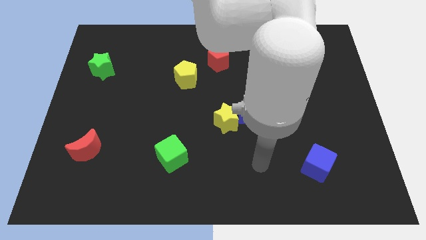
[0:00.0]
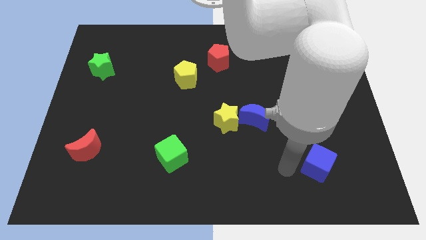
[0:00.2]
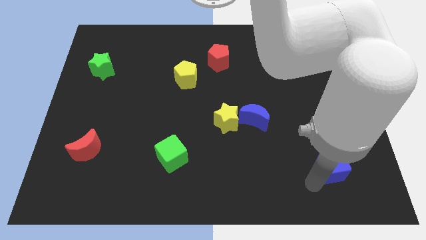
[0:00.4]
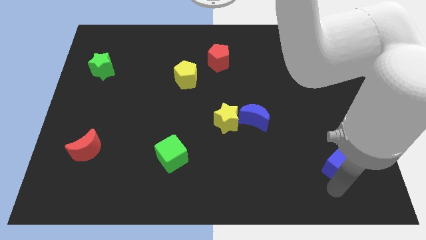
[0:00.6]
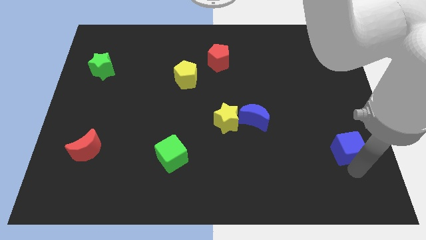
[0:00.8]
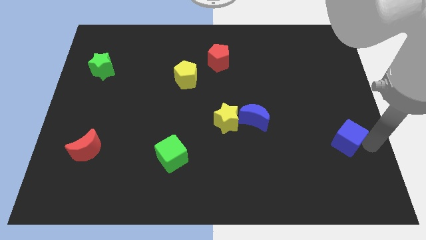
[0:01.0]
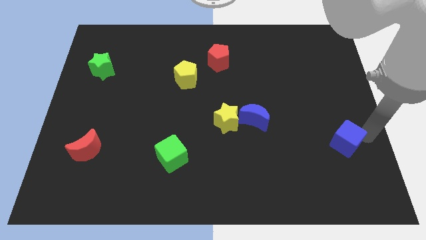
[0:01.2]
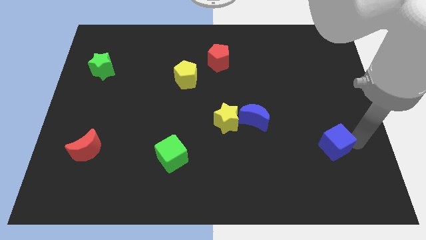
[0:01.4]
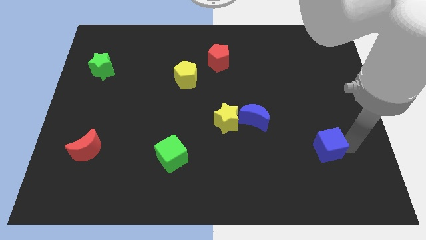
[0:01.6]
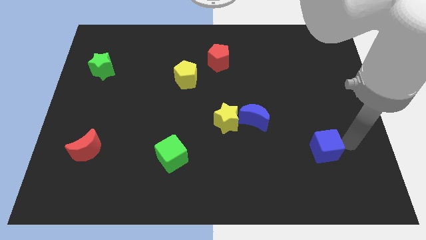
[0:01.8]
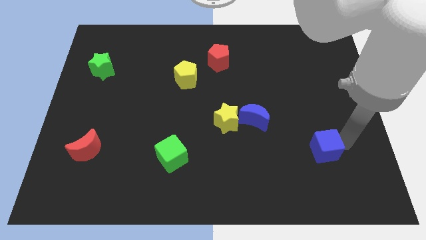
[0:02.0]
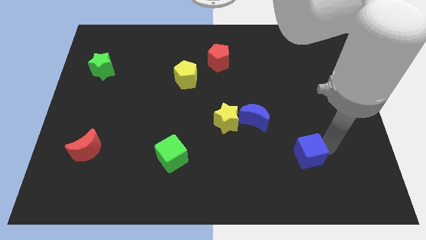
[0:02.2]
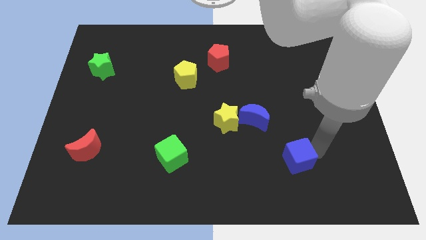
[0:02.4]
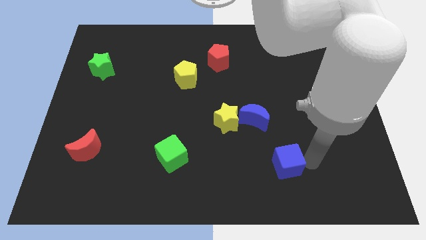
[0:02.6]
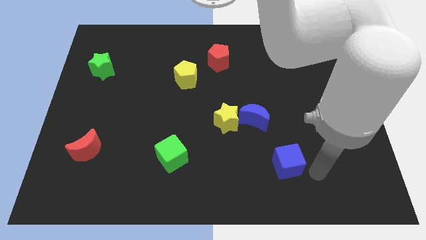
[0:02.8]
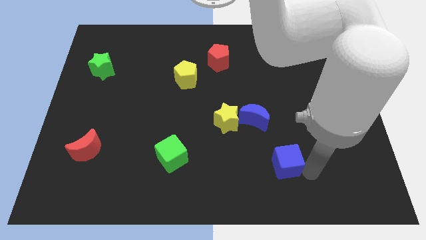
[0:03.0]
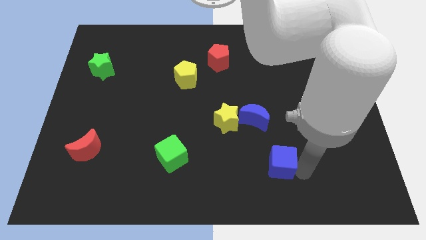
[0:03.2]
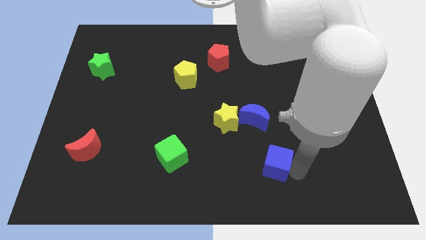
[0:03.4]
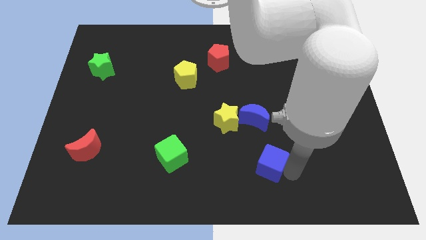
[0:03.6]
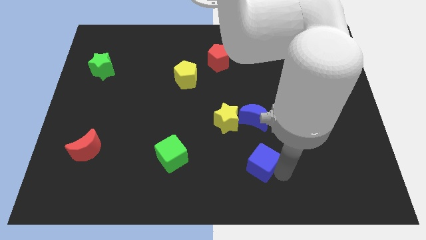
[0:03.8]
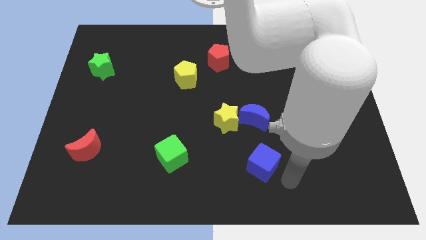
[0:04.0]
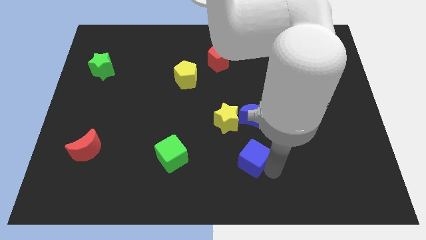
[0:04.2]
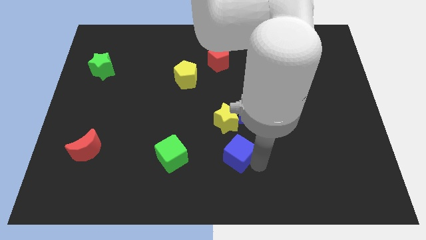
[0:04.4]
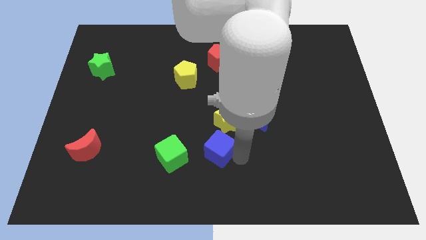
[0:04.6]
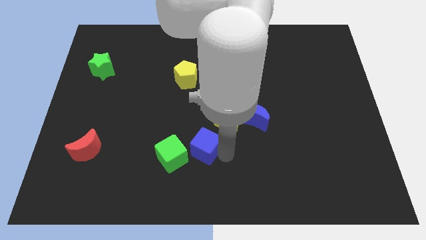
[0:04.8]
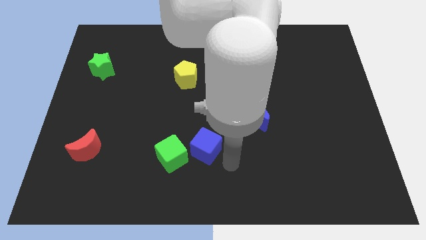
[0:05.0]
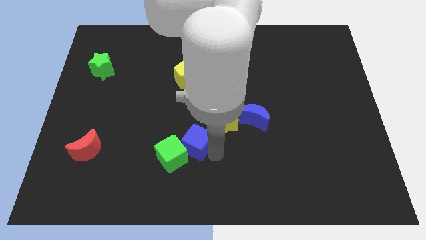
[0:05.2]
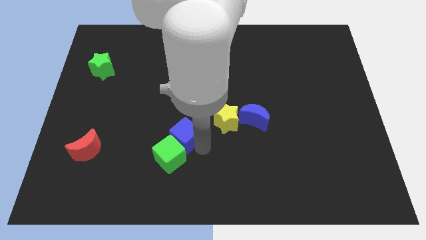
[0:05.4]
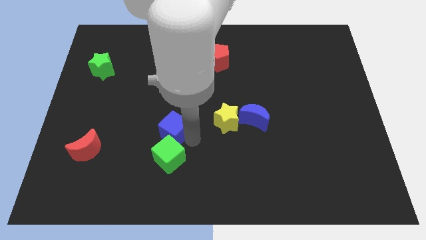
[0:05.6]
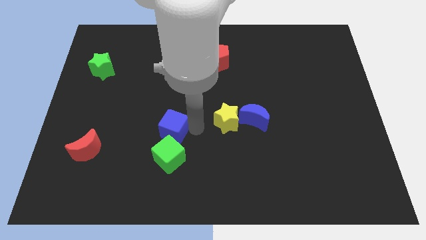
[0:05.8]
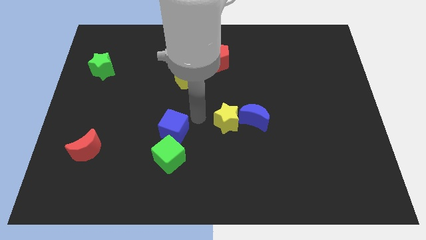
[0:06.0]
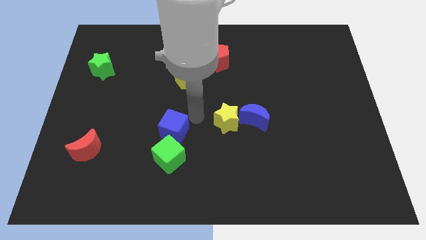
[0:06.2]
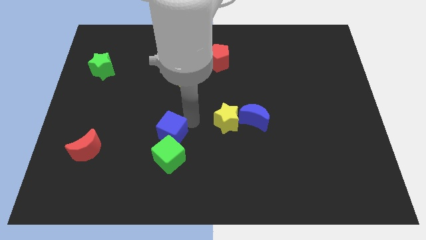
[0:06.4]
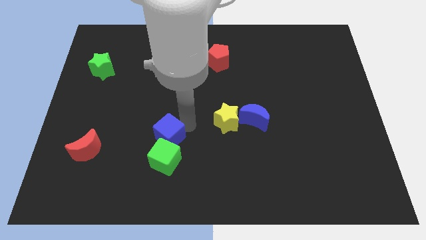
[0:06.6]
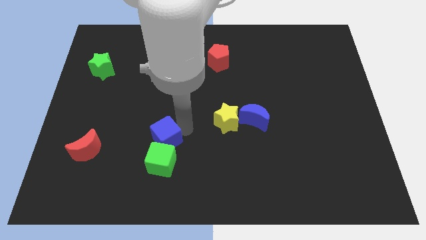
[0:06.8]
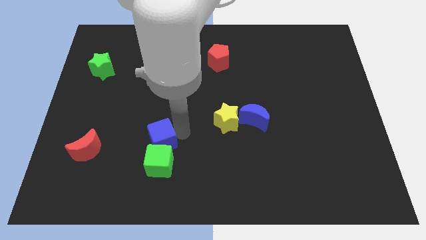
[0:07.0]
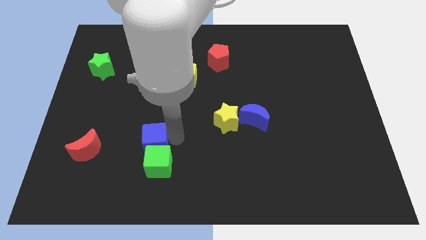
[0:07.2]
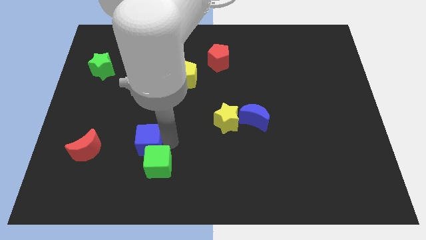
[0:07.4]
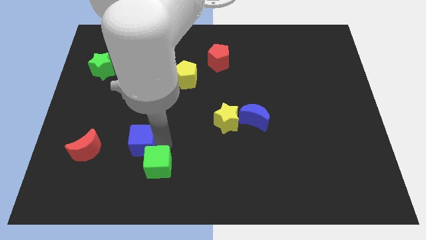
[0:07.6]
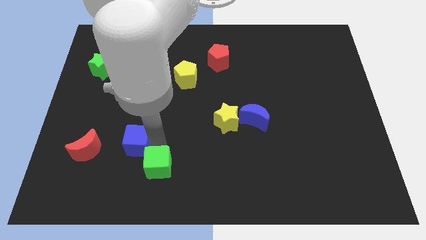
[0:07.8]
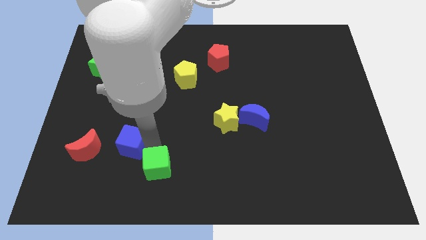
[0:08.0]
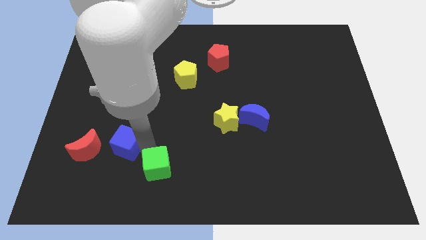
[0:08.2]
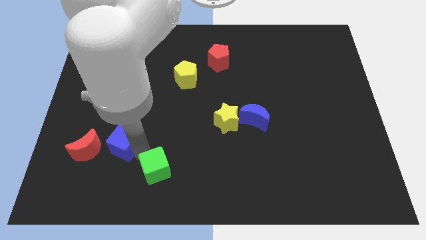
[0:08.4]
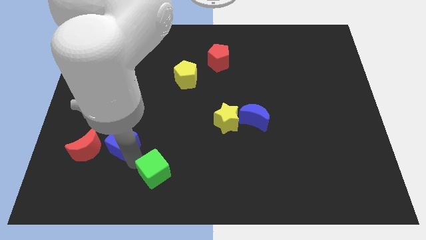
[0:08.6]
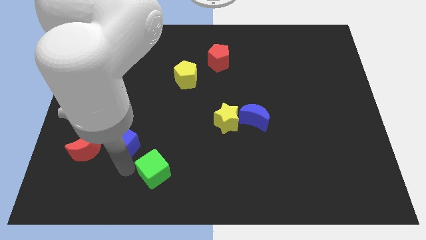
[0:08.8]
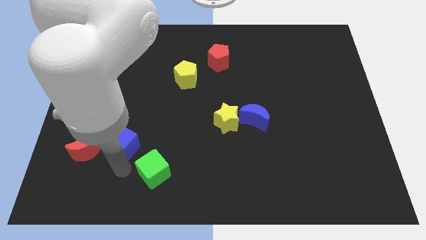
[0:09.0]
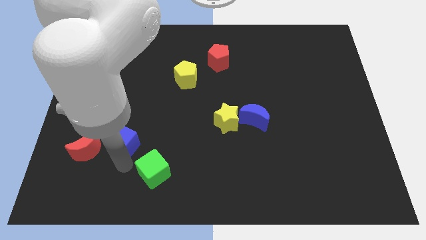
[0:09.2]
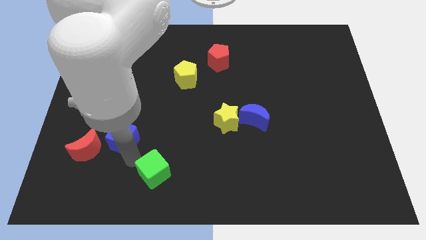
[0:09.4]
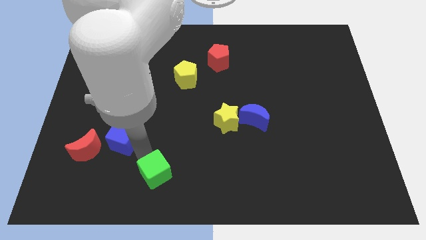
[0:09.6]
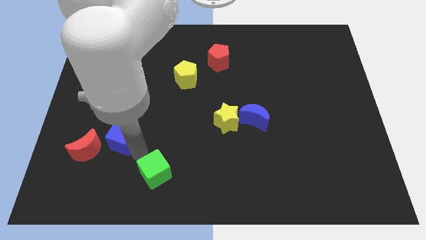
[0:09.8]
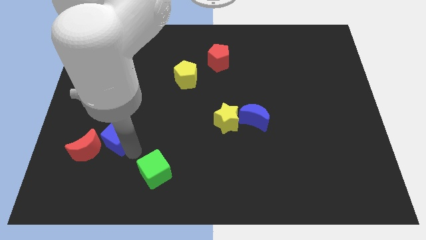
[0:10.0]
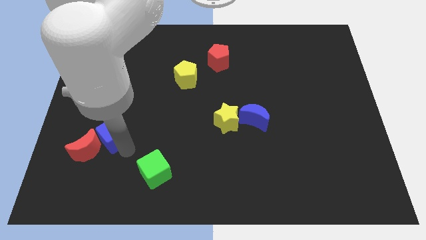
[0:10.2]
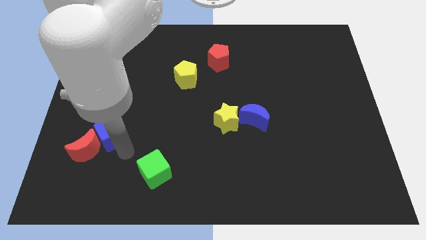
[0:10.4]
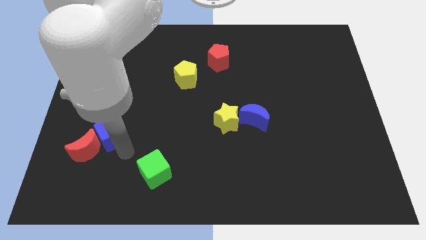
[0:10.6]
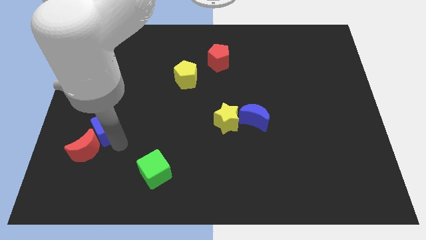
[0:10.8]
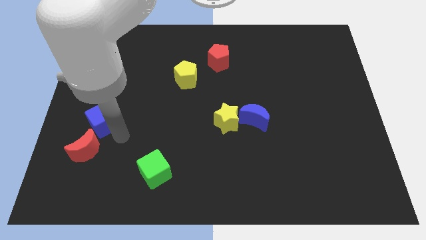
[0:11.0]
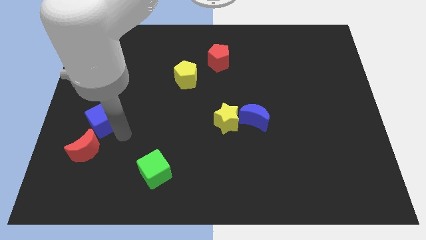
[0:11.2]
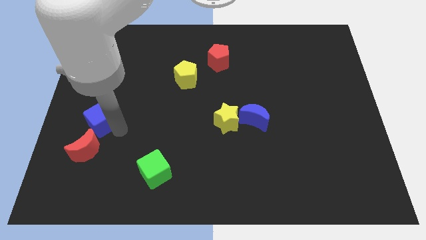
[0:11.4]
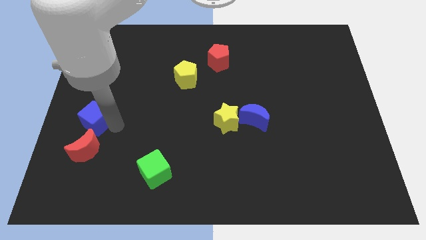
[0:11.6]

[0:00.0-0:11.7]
put the blue cube to the left side
